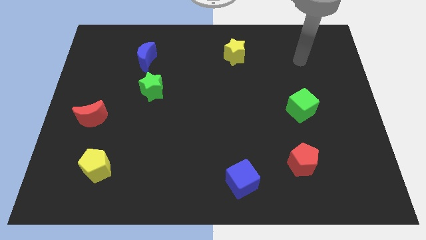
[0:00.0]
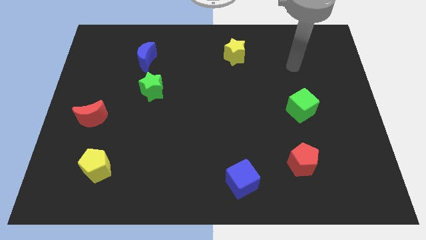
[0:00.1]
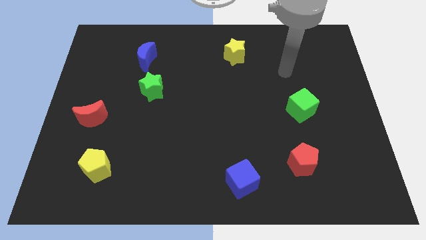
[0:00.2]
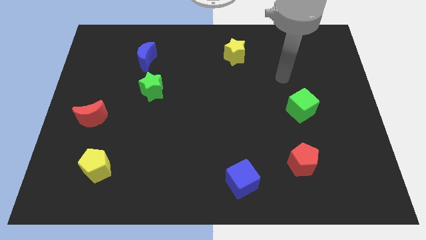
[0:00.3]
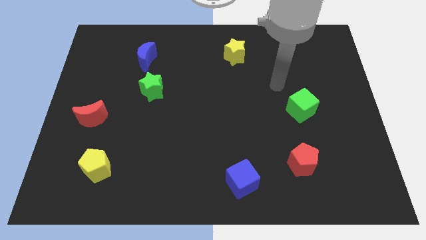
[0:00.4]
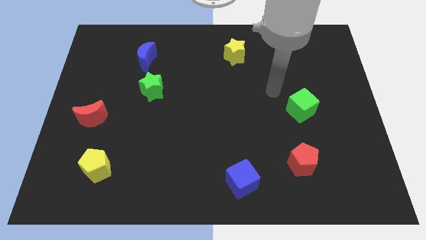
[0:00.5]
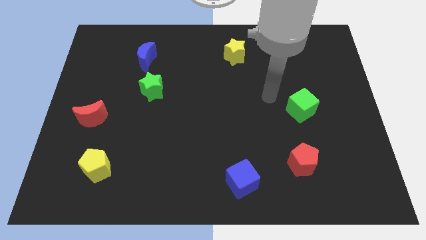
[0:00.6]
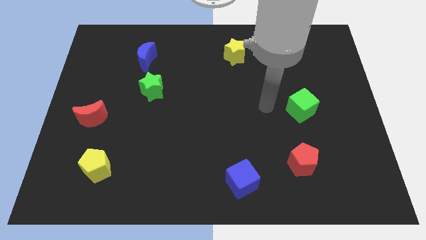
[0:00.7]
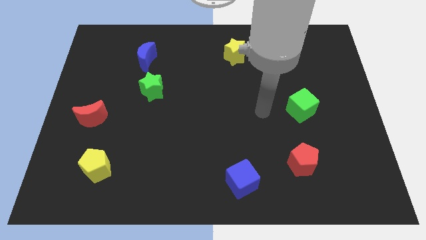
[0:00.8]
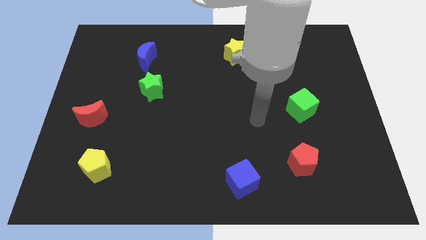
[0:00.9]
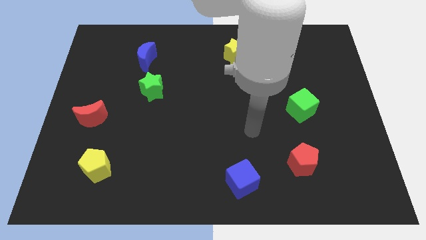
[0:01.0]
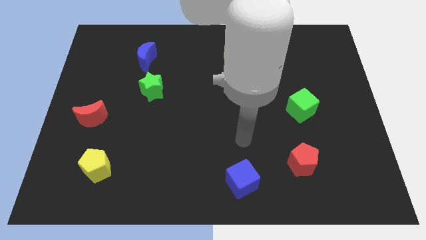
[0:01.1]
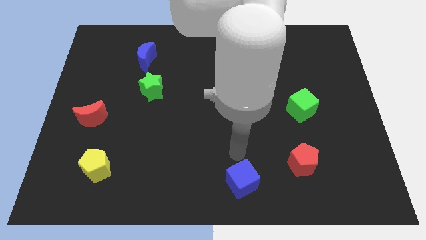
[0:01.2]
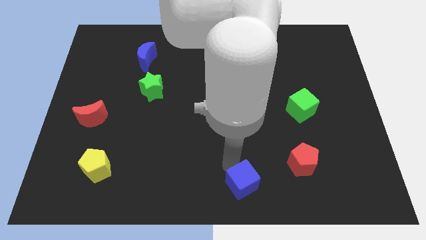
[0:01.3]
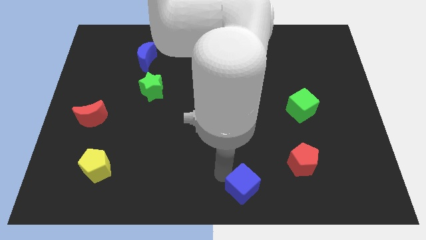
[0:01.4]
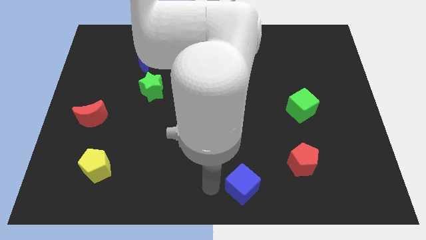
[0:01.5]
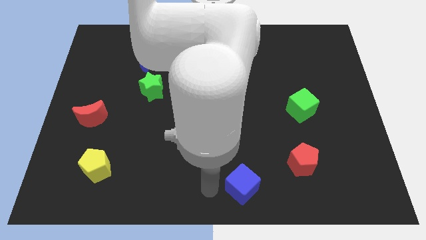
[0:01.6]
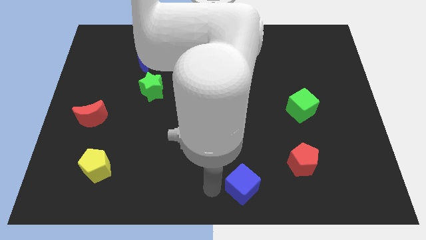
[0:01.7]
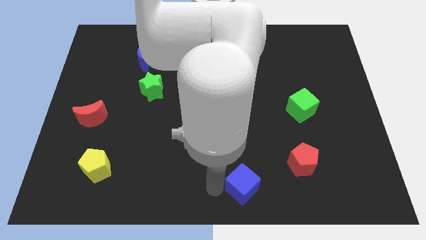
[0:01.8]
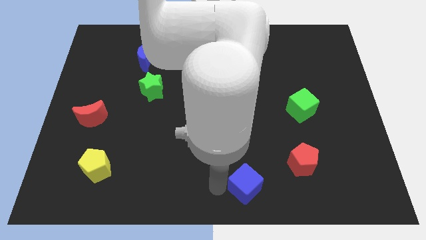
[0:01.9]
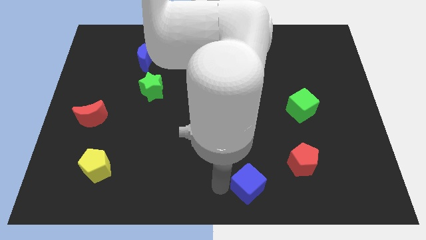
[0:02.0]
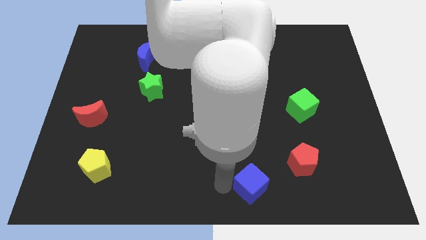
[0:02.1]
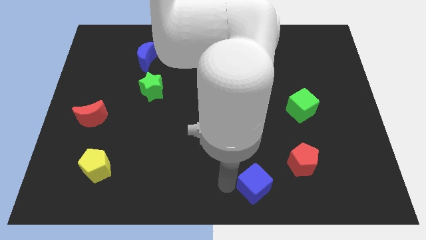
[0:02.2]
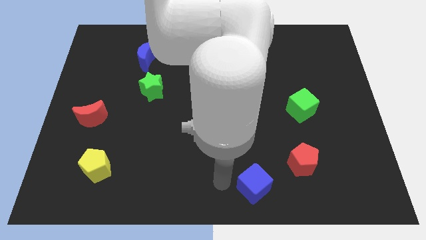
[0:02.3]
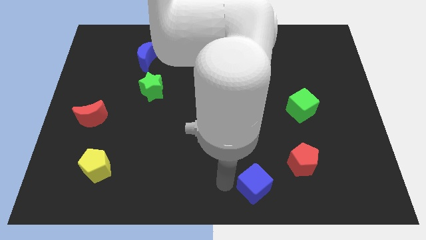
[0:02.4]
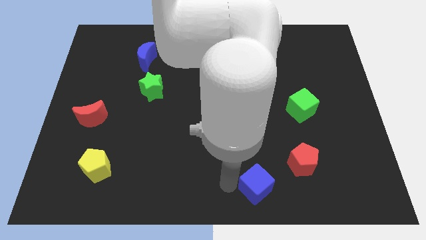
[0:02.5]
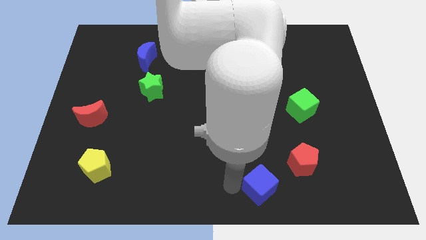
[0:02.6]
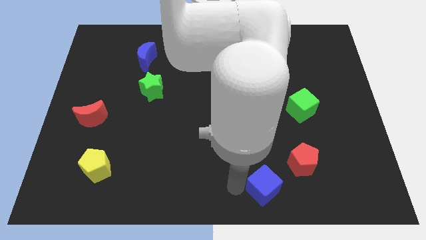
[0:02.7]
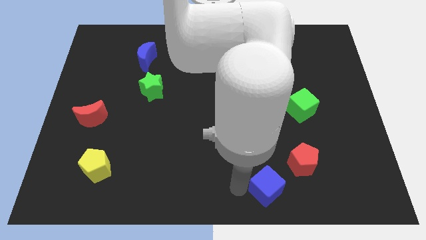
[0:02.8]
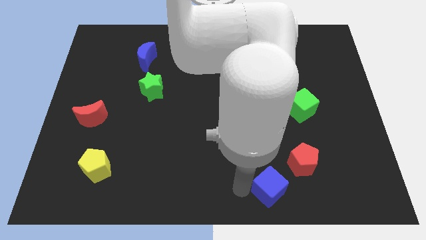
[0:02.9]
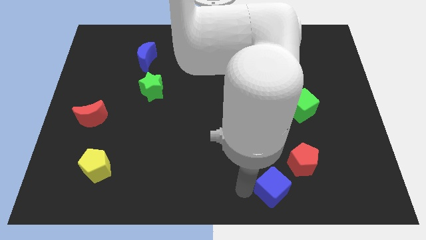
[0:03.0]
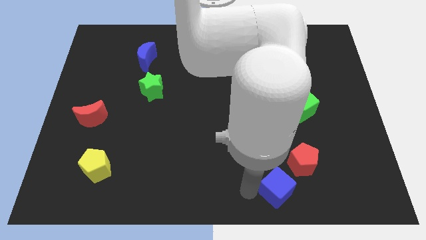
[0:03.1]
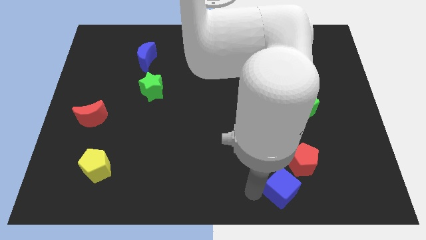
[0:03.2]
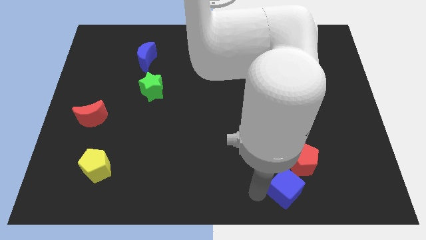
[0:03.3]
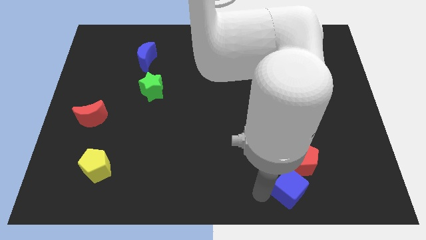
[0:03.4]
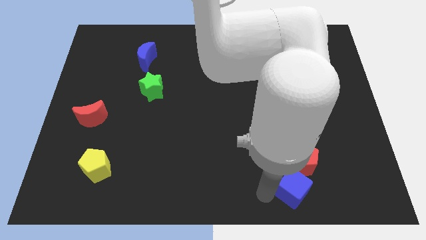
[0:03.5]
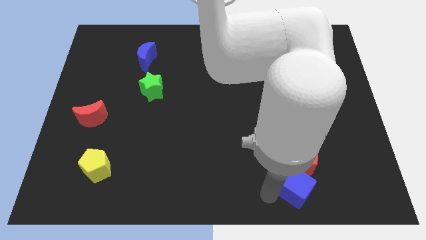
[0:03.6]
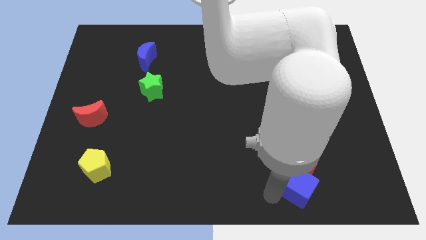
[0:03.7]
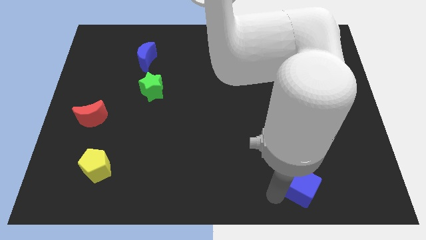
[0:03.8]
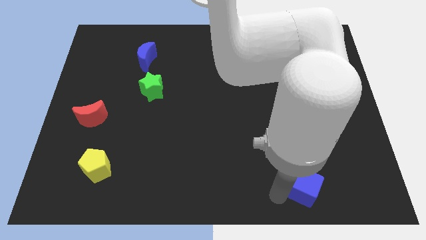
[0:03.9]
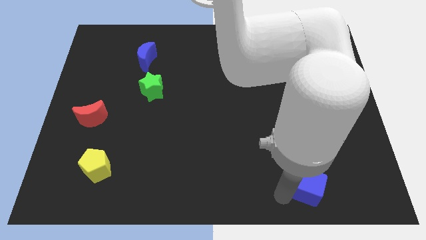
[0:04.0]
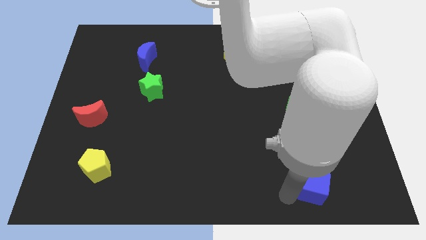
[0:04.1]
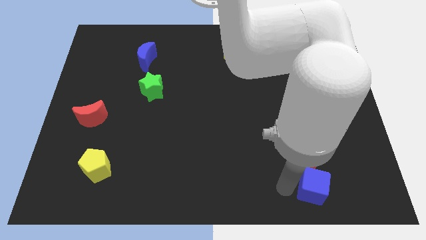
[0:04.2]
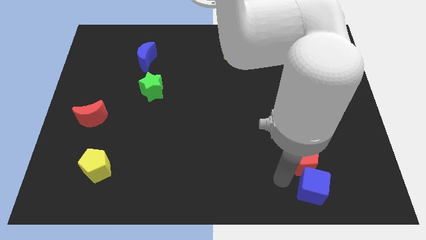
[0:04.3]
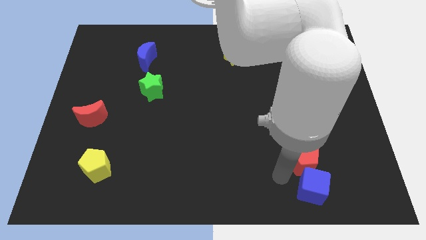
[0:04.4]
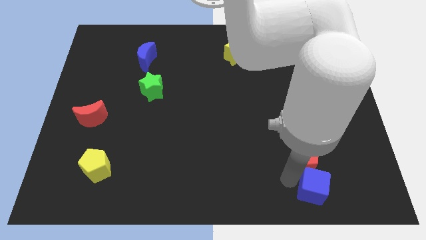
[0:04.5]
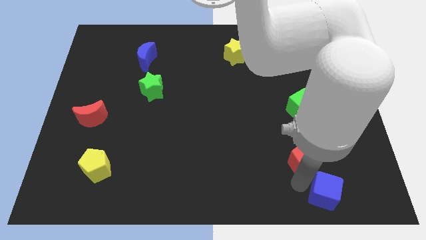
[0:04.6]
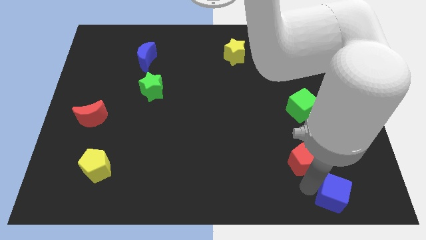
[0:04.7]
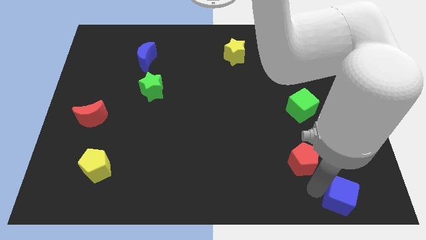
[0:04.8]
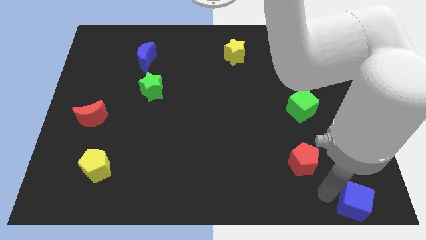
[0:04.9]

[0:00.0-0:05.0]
push the blue cube to the bottom right
